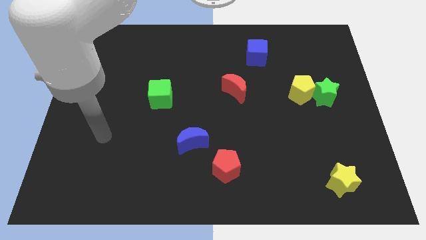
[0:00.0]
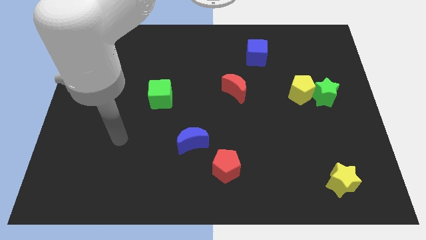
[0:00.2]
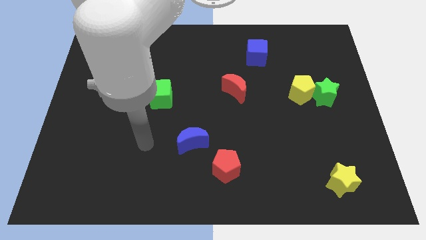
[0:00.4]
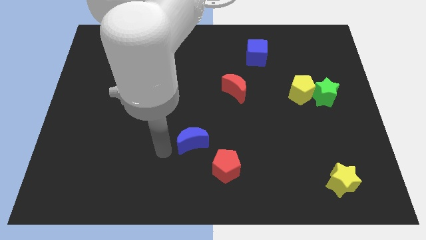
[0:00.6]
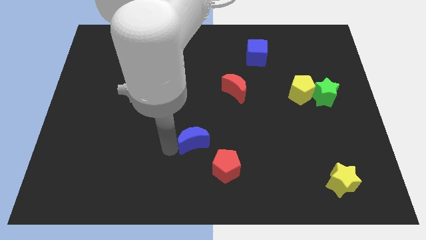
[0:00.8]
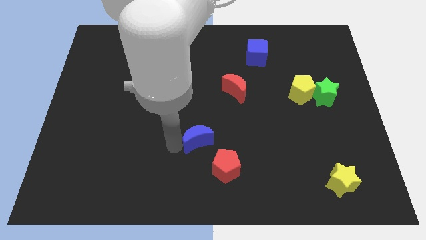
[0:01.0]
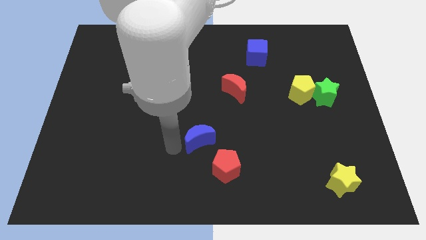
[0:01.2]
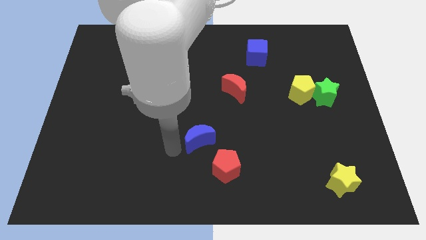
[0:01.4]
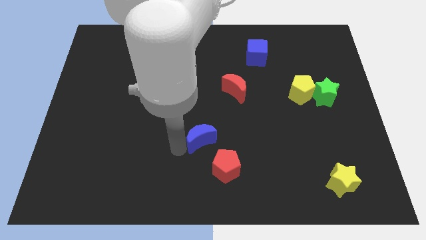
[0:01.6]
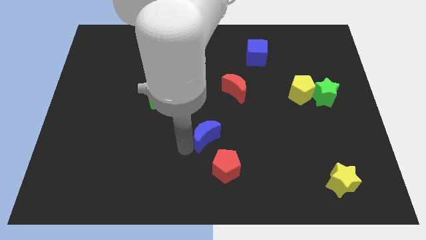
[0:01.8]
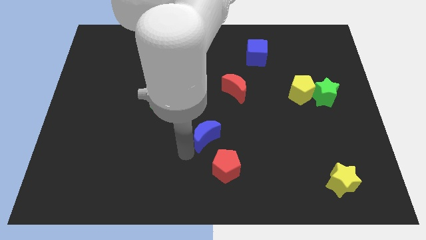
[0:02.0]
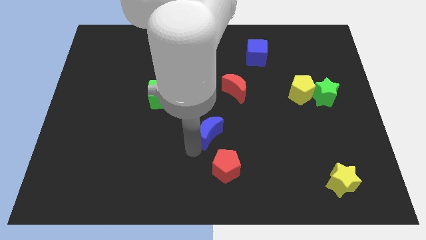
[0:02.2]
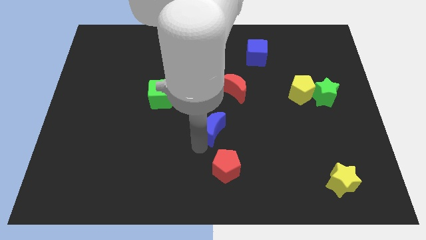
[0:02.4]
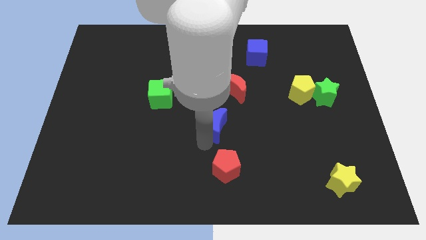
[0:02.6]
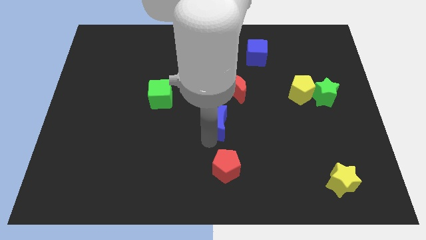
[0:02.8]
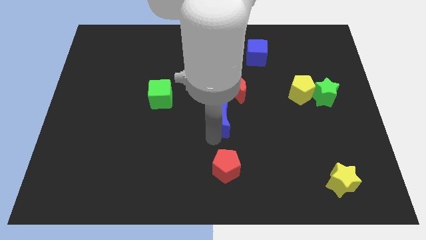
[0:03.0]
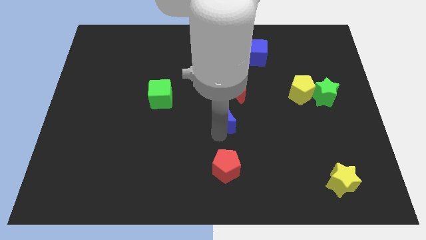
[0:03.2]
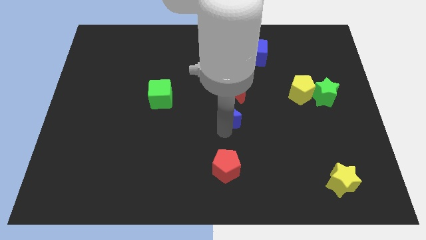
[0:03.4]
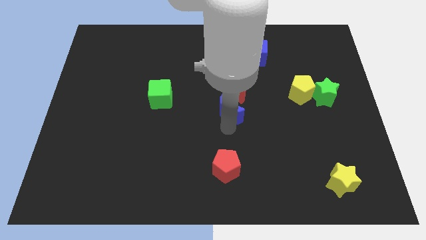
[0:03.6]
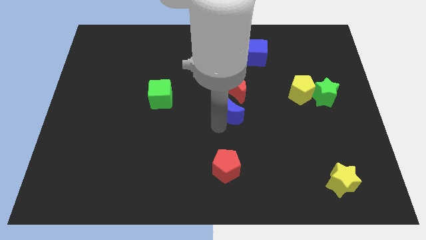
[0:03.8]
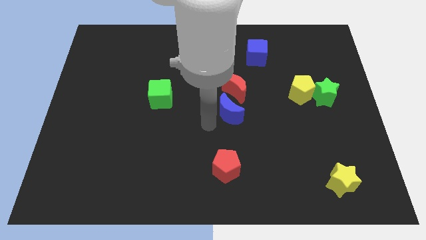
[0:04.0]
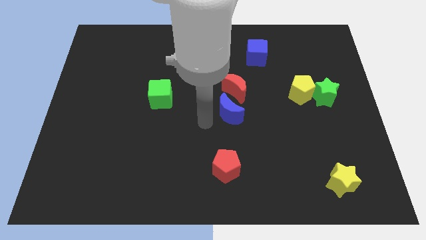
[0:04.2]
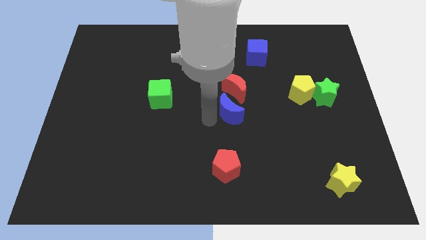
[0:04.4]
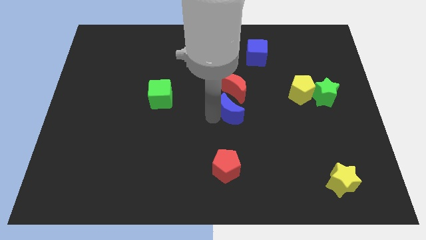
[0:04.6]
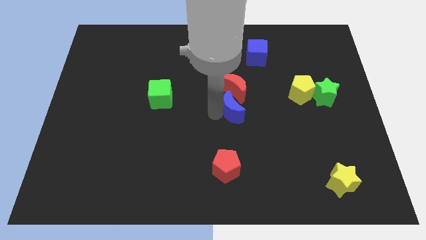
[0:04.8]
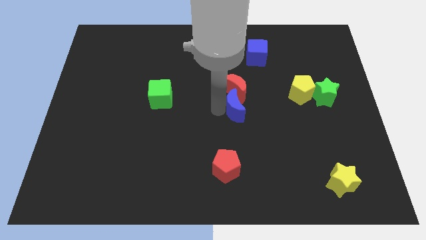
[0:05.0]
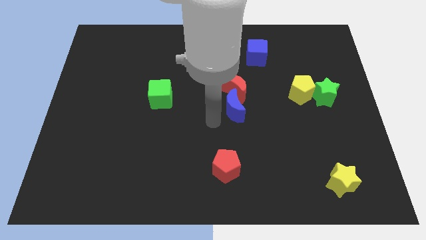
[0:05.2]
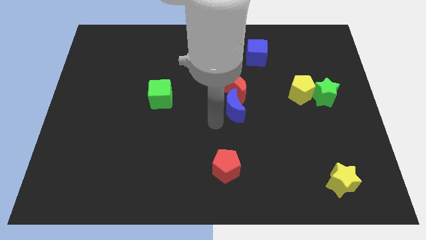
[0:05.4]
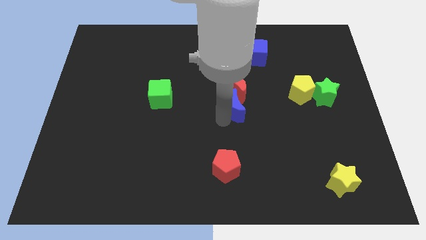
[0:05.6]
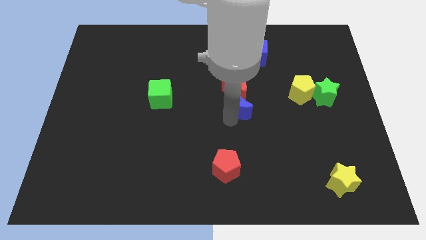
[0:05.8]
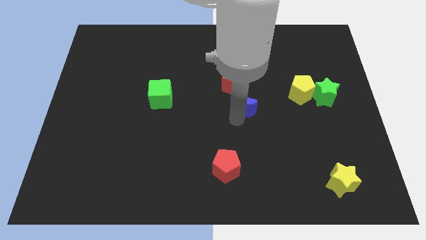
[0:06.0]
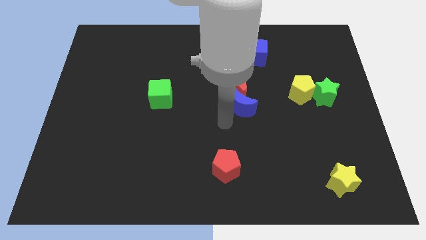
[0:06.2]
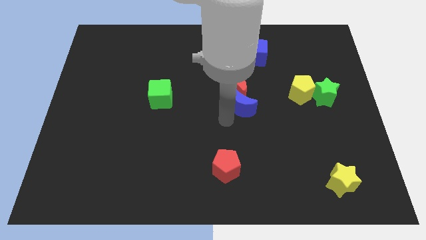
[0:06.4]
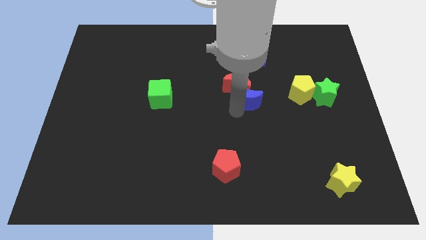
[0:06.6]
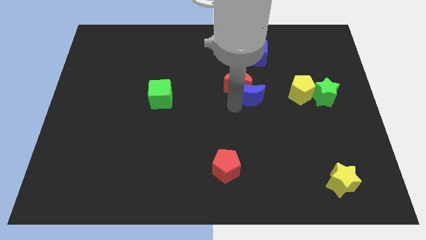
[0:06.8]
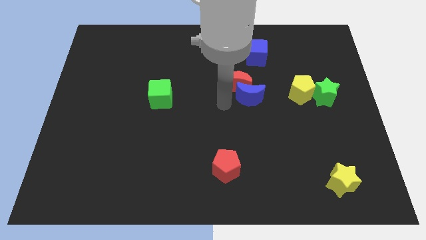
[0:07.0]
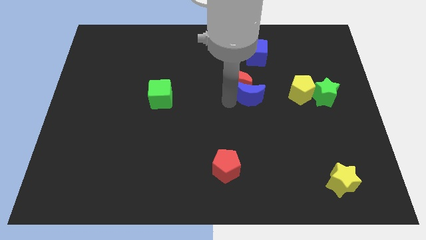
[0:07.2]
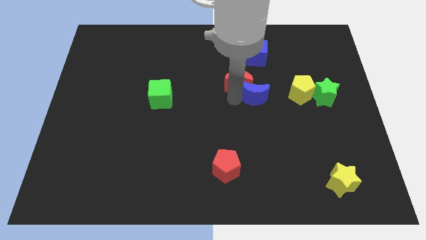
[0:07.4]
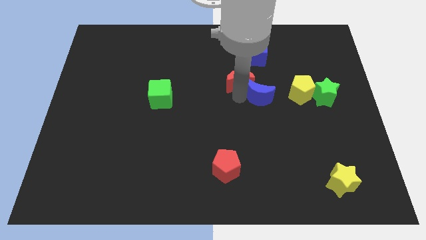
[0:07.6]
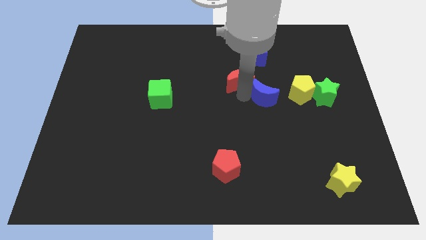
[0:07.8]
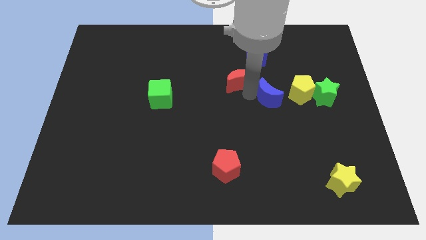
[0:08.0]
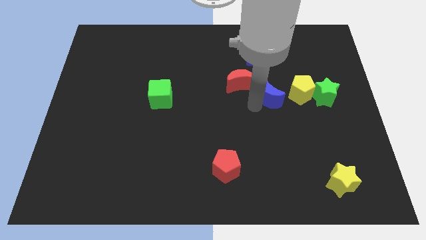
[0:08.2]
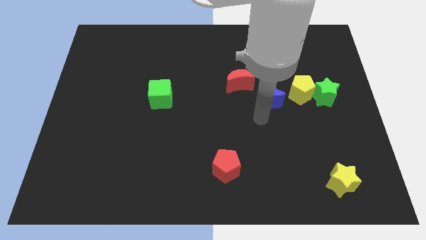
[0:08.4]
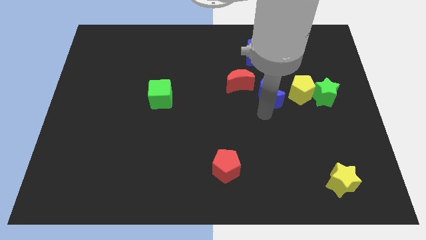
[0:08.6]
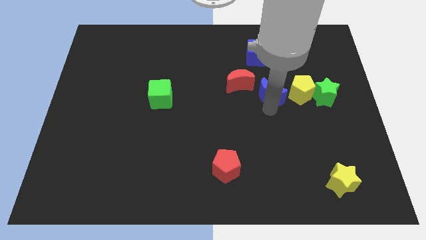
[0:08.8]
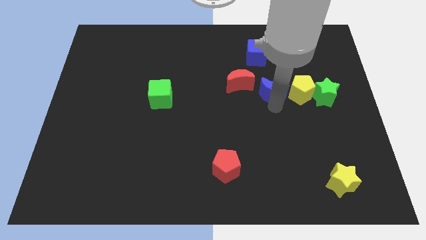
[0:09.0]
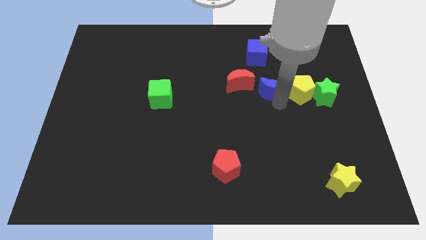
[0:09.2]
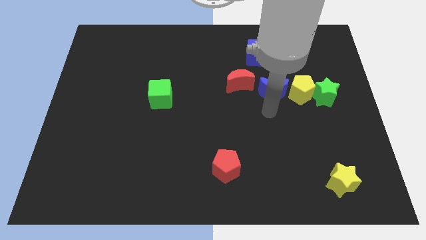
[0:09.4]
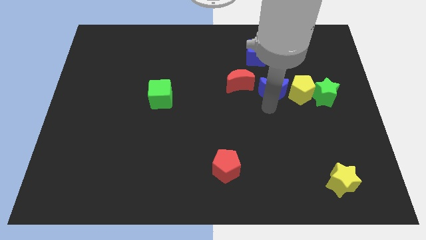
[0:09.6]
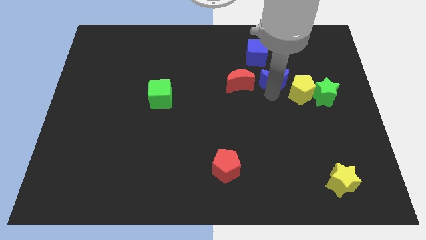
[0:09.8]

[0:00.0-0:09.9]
slide the blue moon diagonally down and to the right of the blue cube

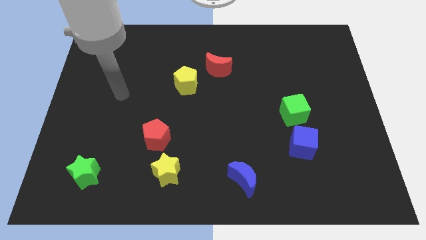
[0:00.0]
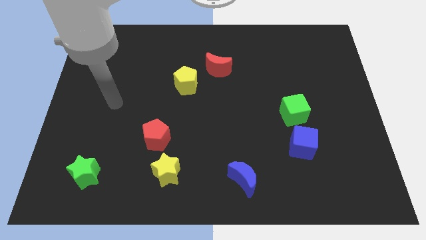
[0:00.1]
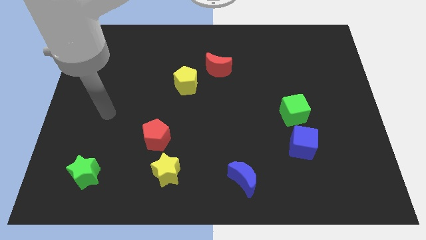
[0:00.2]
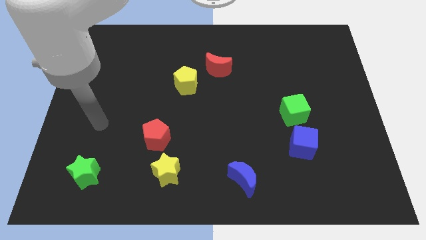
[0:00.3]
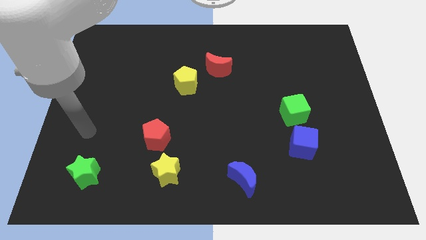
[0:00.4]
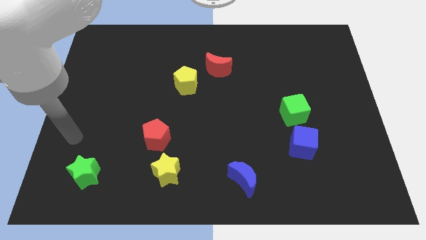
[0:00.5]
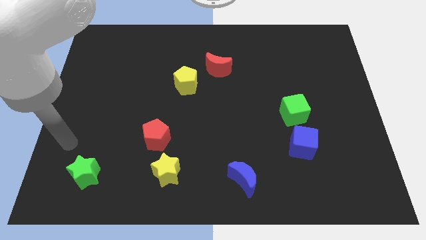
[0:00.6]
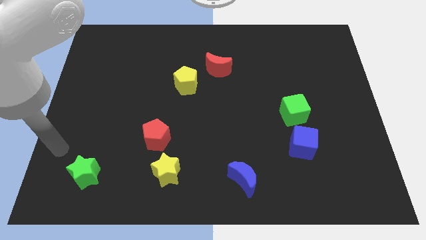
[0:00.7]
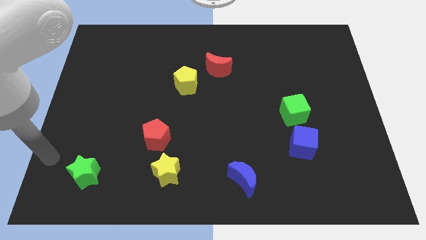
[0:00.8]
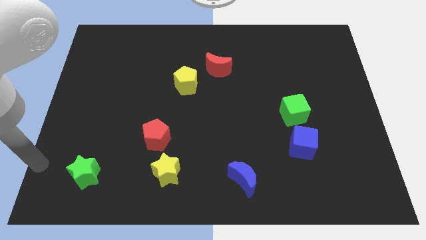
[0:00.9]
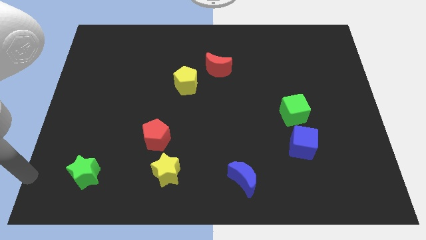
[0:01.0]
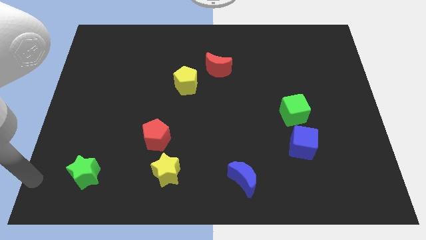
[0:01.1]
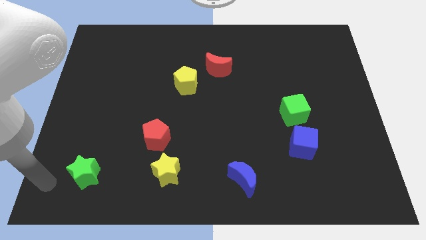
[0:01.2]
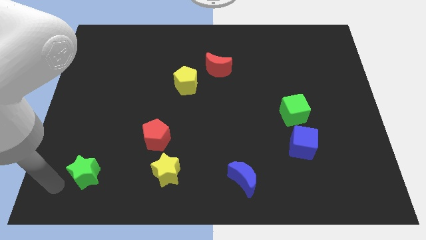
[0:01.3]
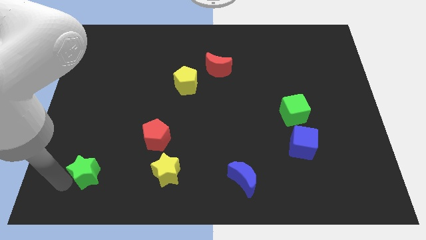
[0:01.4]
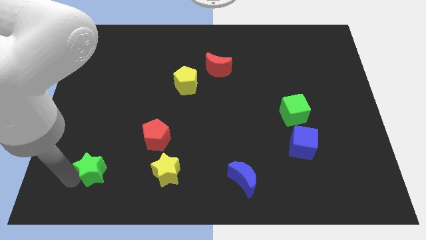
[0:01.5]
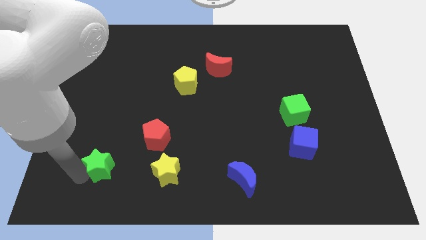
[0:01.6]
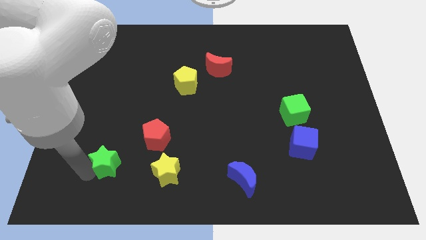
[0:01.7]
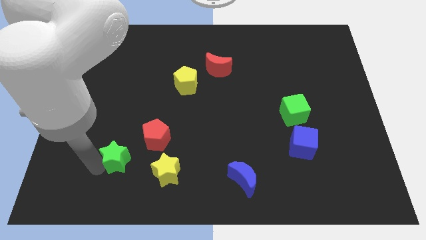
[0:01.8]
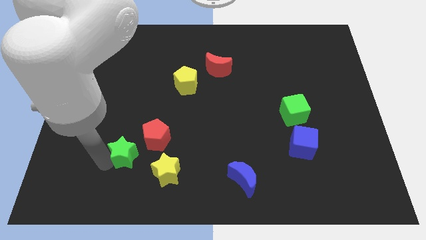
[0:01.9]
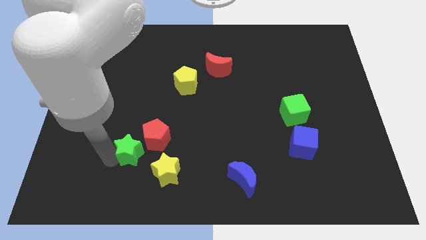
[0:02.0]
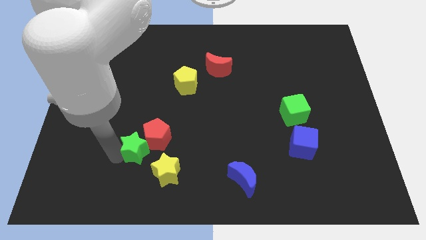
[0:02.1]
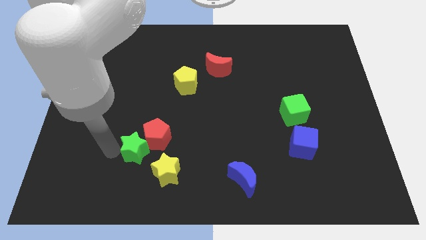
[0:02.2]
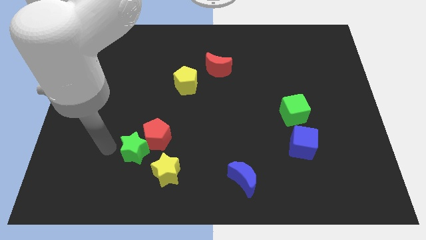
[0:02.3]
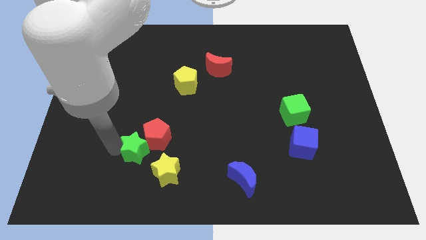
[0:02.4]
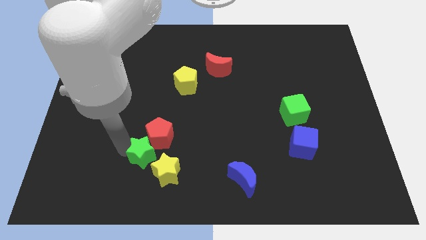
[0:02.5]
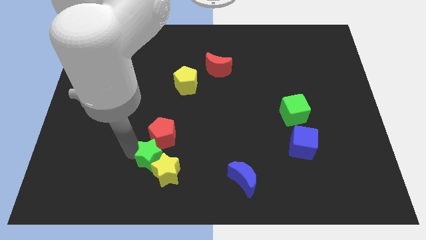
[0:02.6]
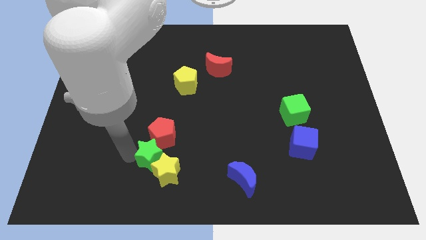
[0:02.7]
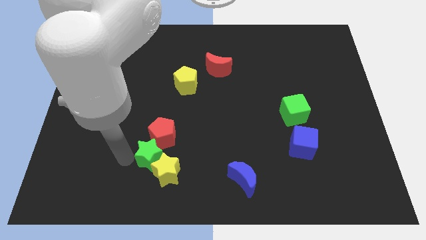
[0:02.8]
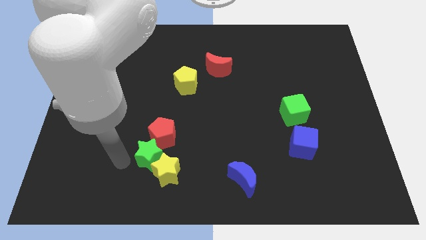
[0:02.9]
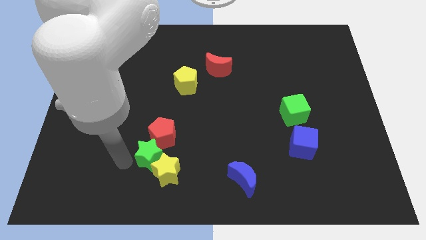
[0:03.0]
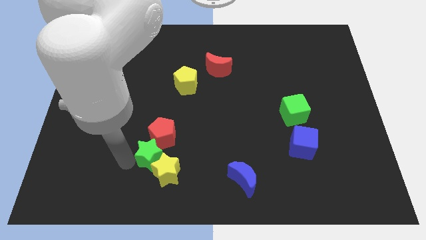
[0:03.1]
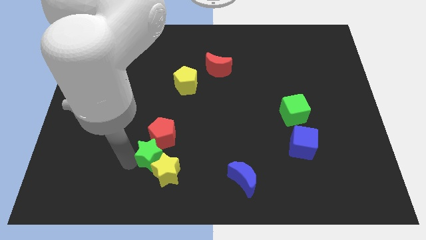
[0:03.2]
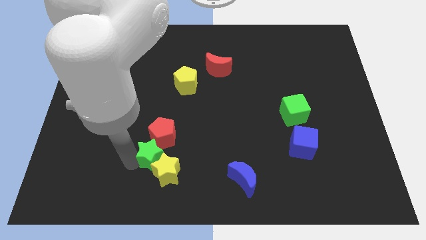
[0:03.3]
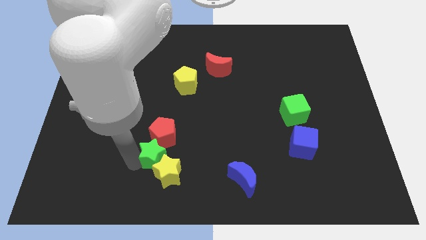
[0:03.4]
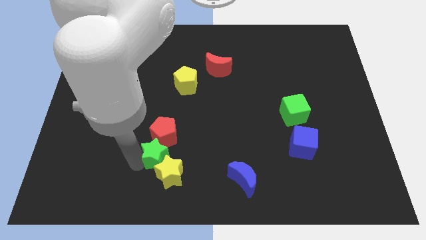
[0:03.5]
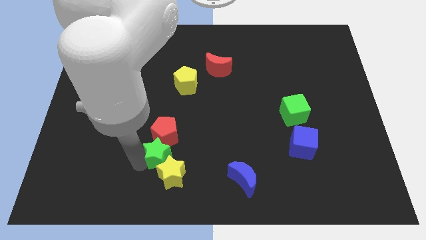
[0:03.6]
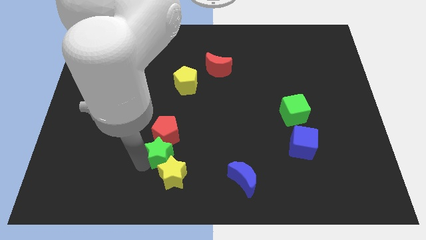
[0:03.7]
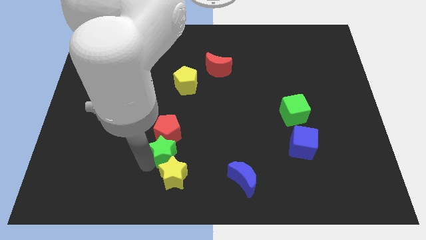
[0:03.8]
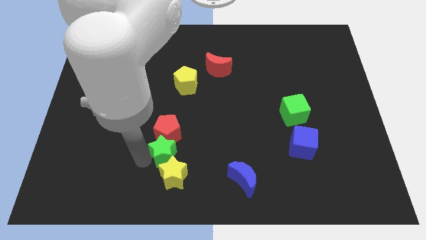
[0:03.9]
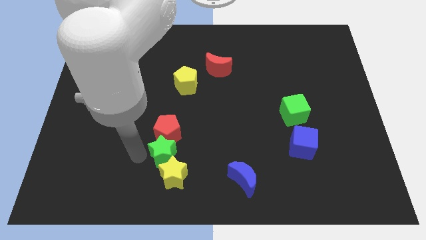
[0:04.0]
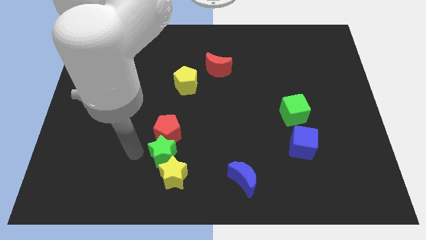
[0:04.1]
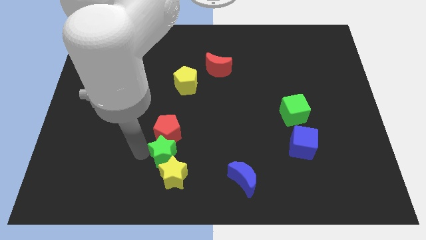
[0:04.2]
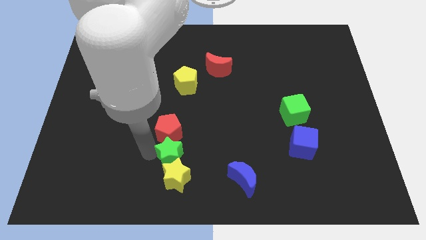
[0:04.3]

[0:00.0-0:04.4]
move the green star to the top right side of the yellow star
